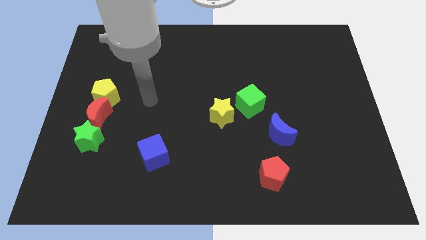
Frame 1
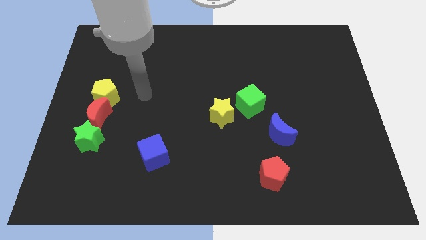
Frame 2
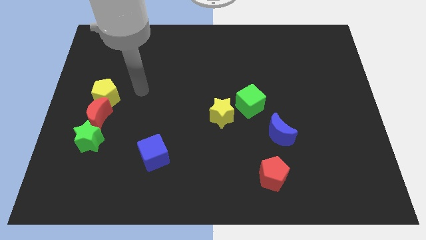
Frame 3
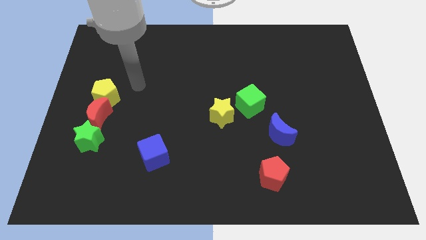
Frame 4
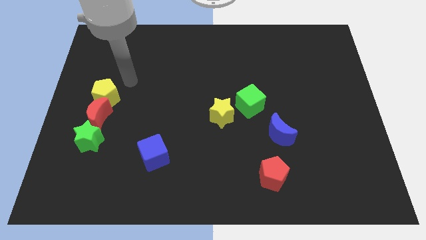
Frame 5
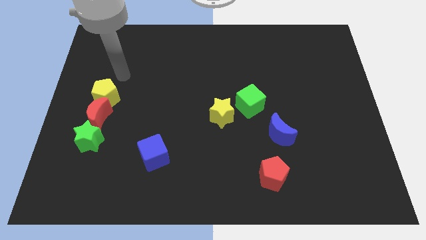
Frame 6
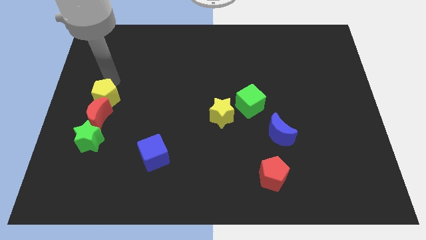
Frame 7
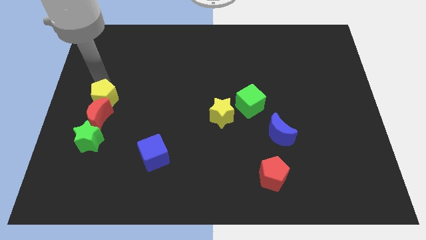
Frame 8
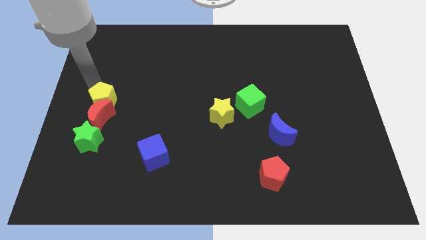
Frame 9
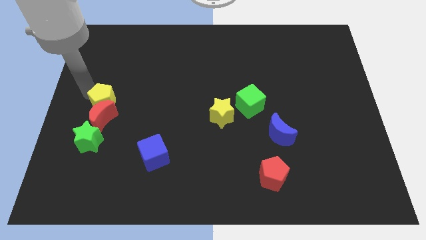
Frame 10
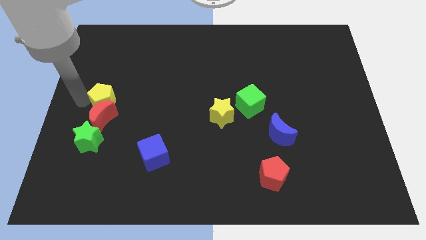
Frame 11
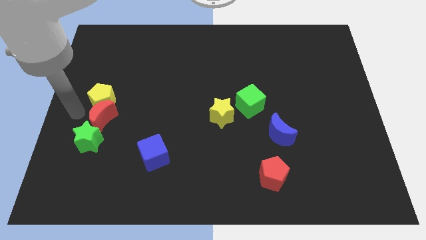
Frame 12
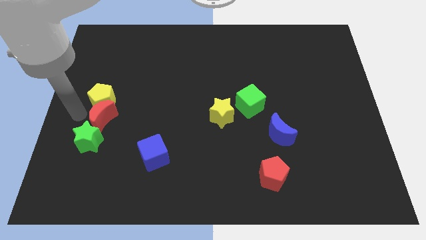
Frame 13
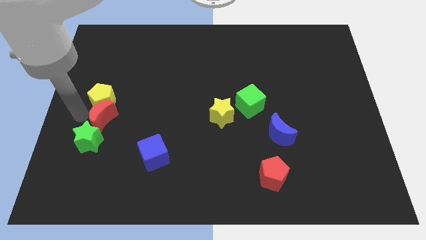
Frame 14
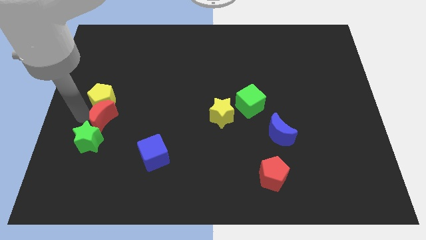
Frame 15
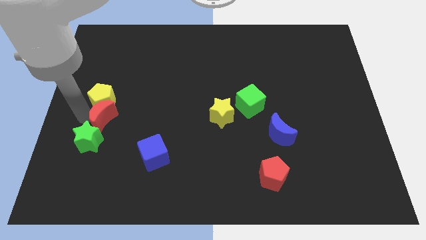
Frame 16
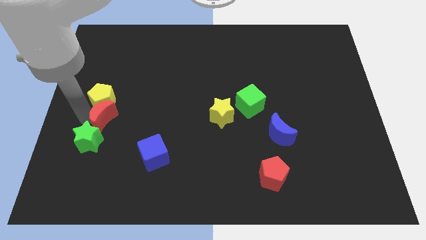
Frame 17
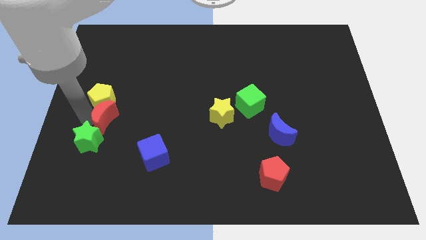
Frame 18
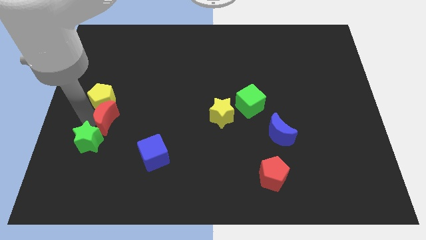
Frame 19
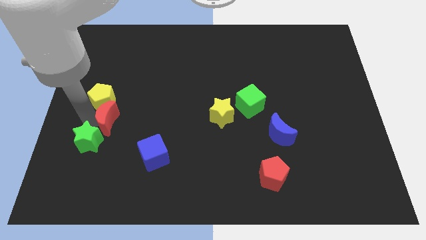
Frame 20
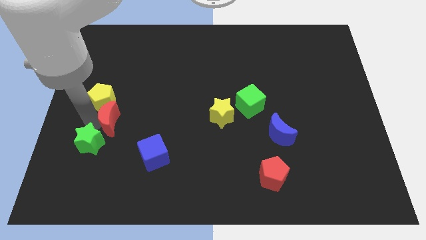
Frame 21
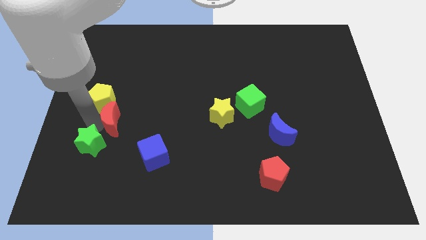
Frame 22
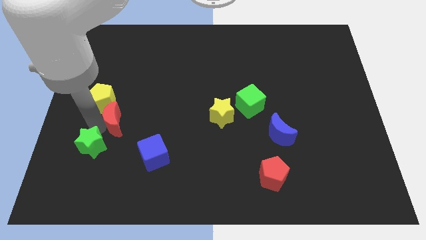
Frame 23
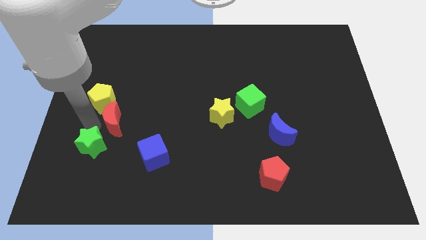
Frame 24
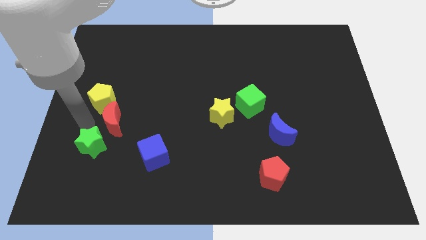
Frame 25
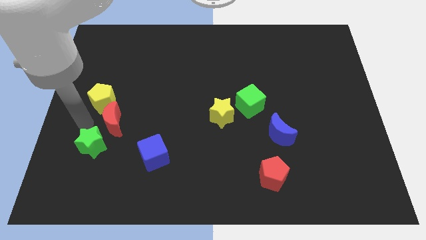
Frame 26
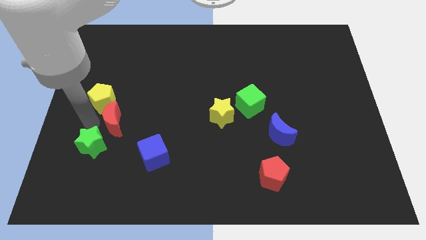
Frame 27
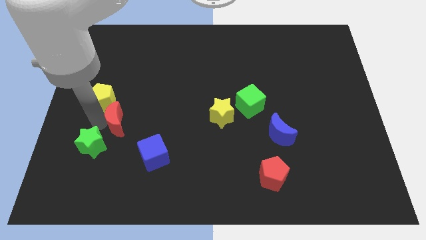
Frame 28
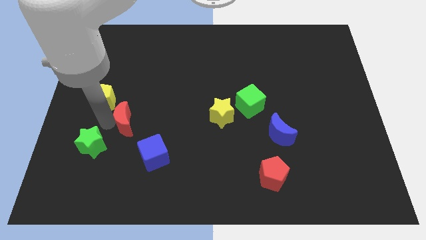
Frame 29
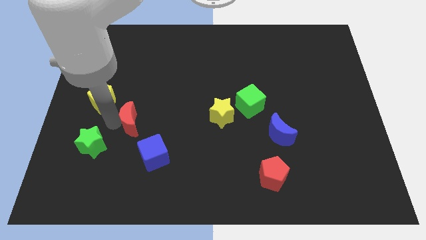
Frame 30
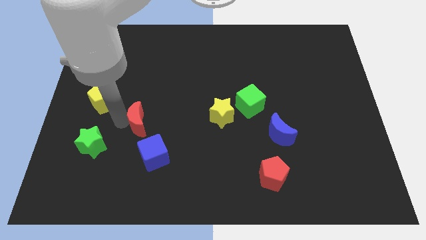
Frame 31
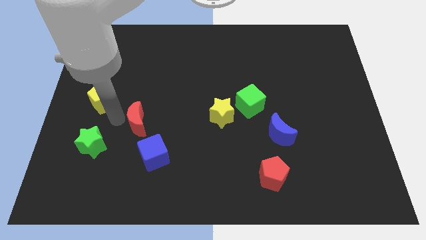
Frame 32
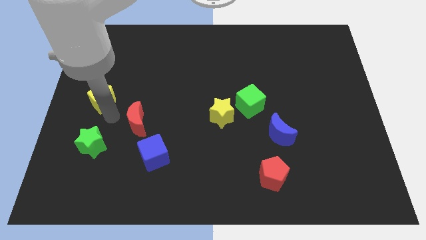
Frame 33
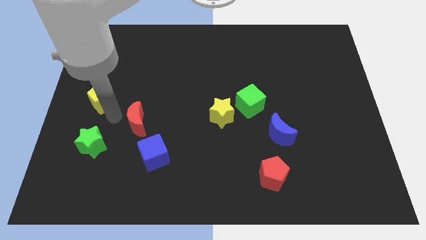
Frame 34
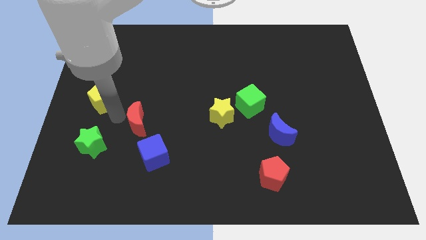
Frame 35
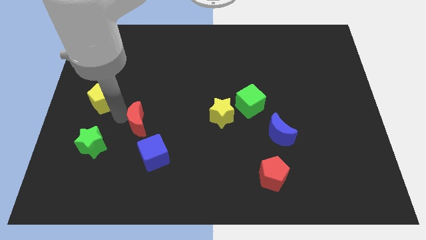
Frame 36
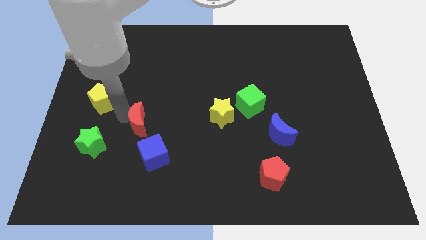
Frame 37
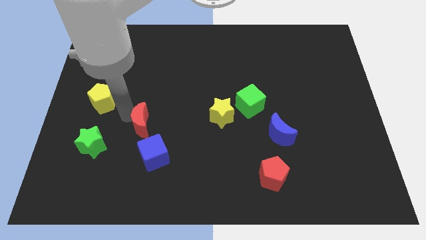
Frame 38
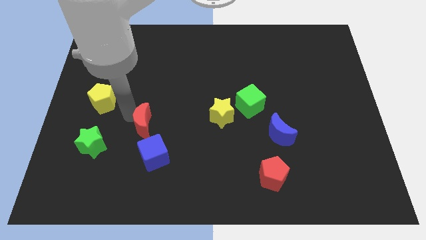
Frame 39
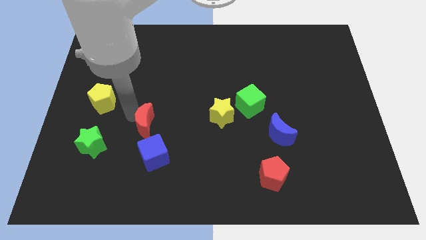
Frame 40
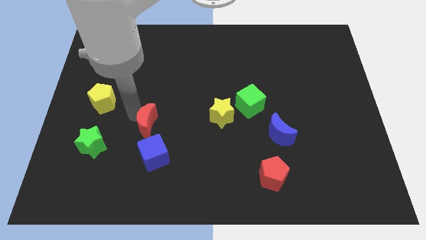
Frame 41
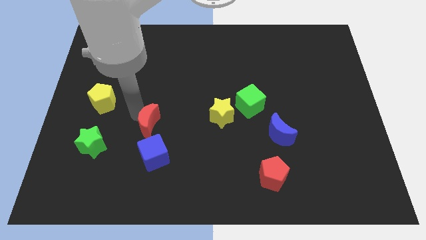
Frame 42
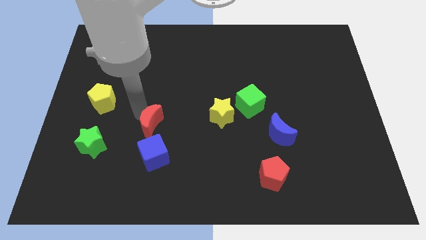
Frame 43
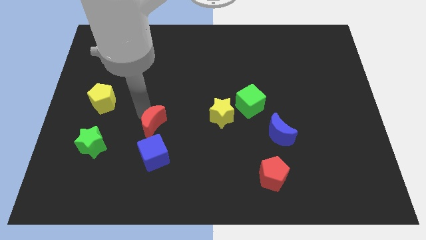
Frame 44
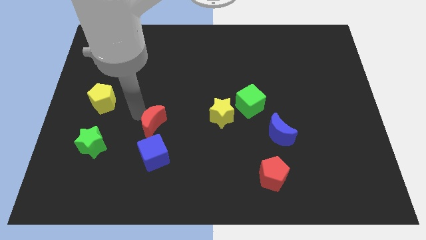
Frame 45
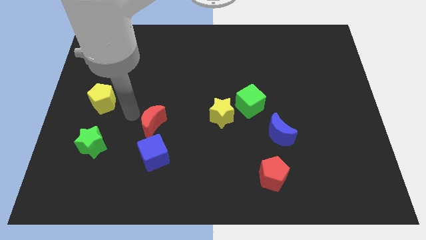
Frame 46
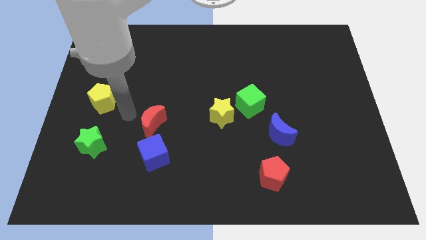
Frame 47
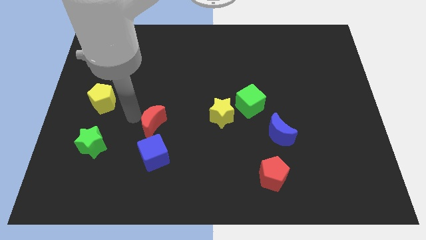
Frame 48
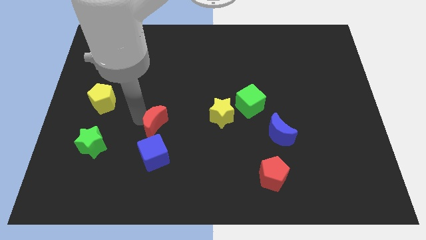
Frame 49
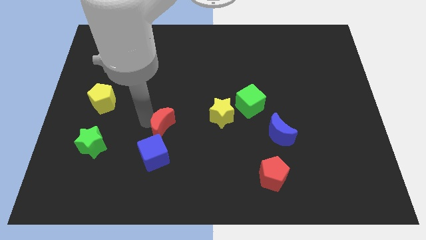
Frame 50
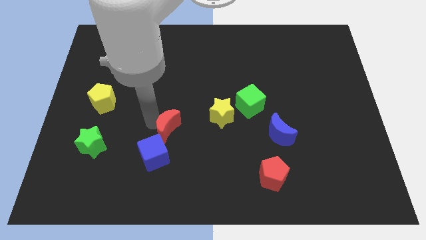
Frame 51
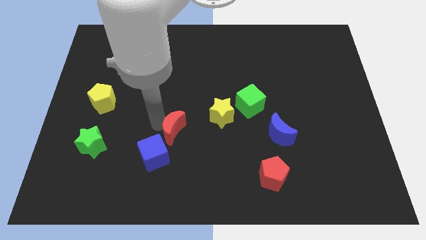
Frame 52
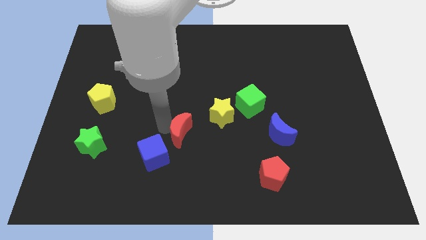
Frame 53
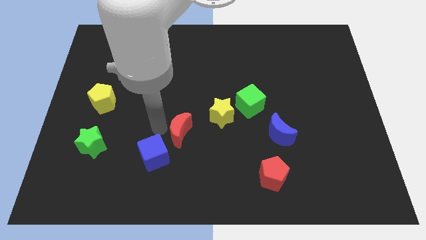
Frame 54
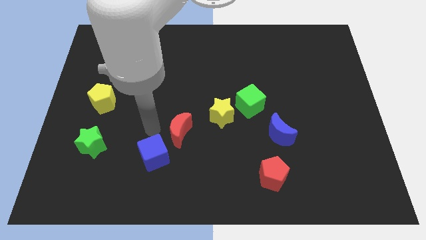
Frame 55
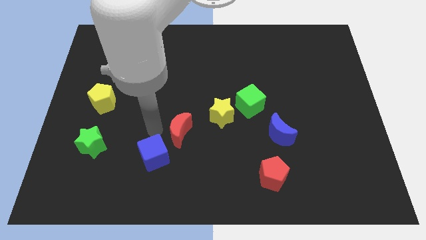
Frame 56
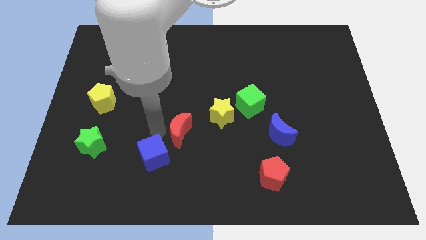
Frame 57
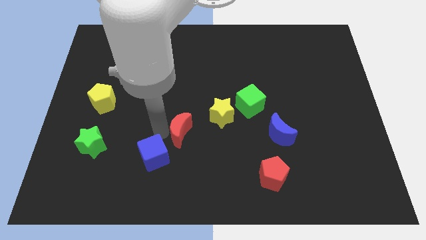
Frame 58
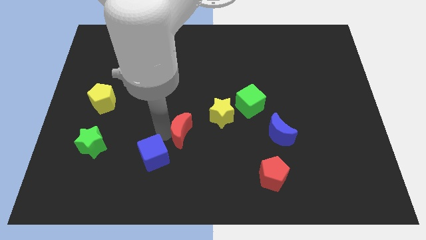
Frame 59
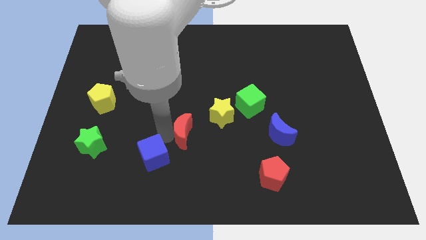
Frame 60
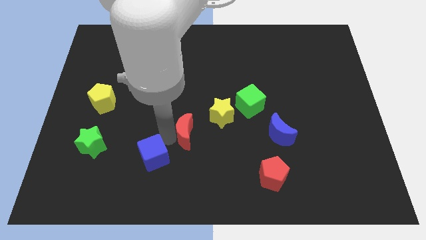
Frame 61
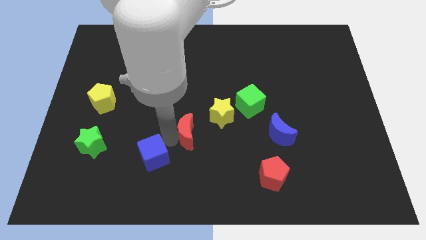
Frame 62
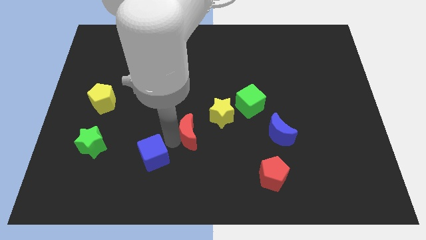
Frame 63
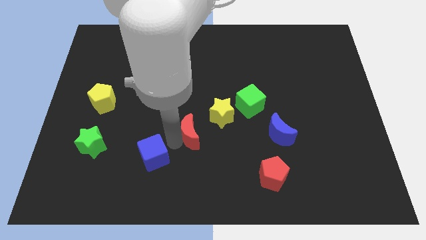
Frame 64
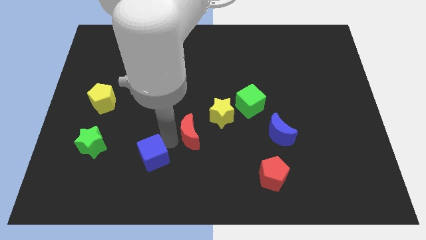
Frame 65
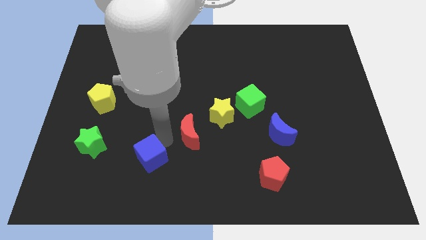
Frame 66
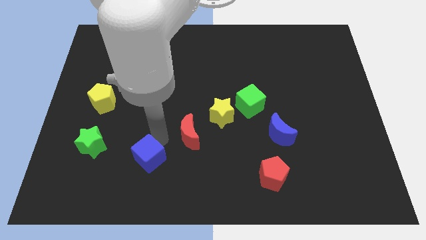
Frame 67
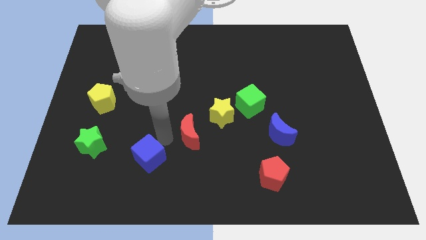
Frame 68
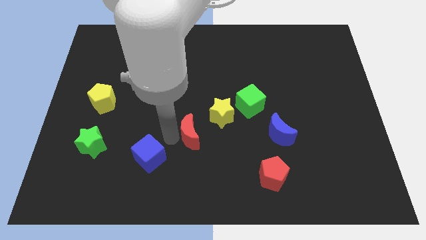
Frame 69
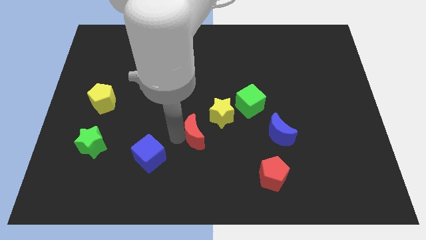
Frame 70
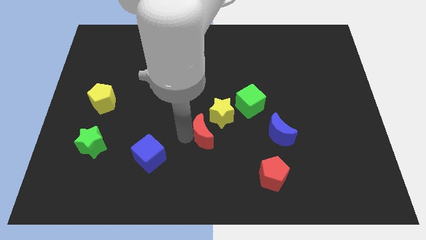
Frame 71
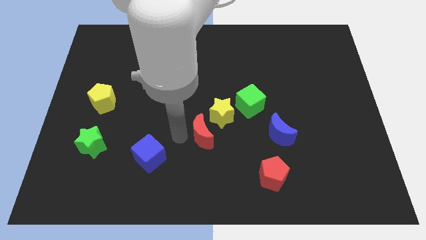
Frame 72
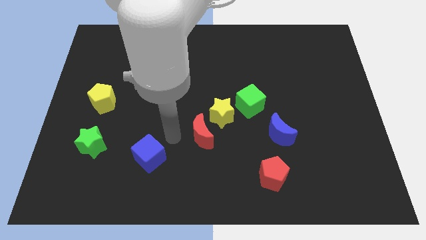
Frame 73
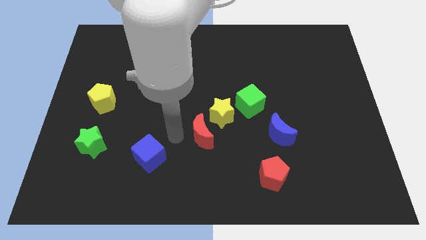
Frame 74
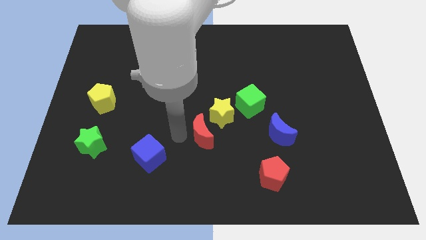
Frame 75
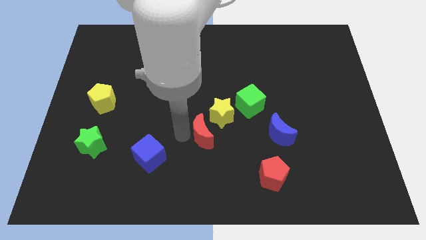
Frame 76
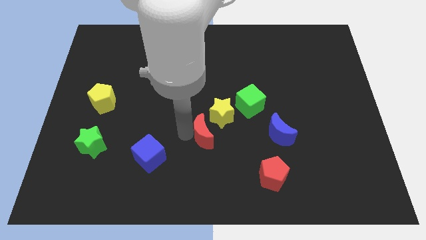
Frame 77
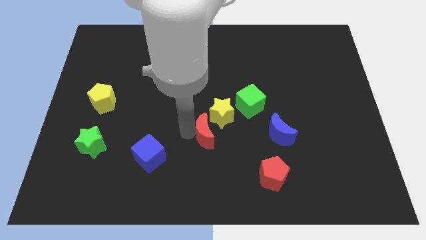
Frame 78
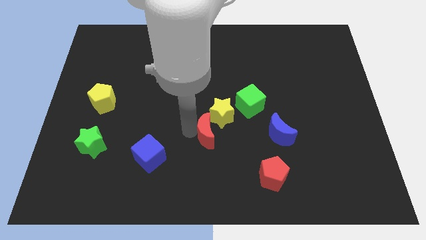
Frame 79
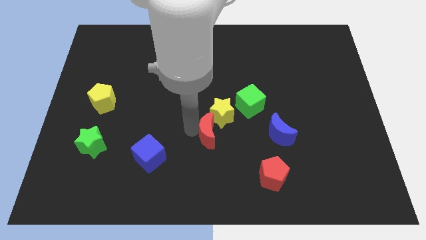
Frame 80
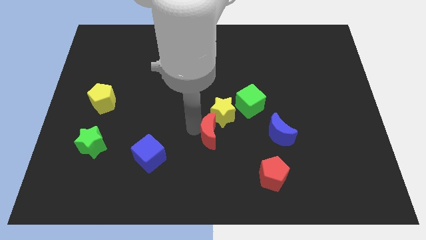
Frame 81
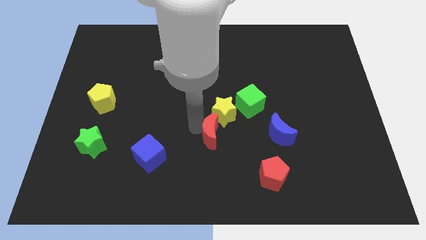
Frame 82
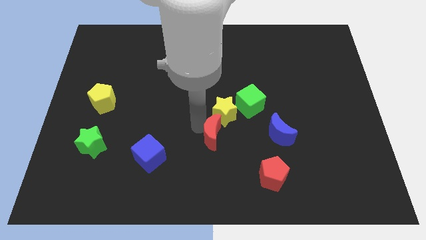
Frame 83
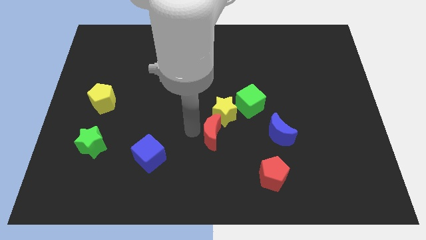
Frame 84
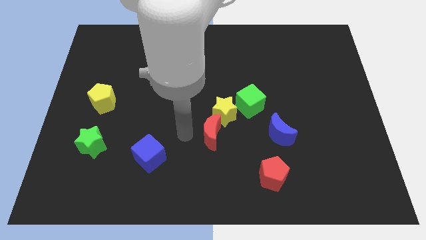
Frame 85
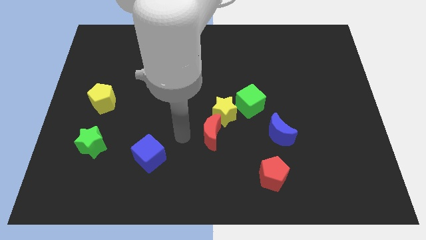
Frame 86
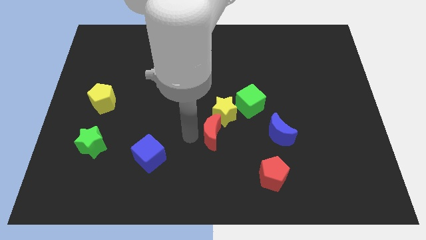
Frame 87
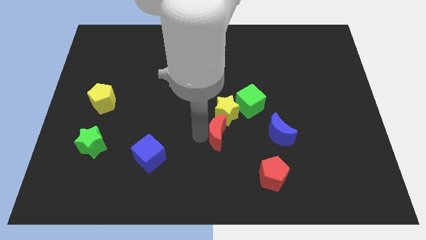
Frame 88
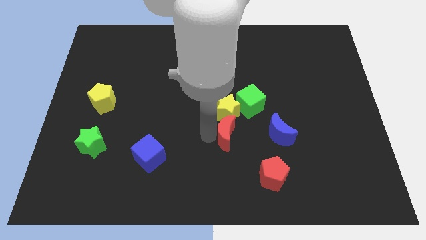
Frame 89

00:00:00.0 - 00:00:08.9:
move the red moon to the bottom right side of the yellow star
